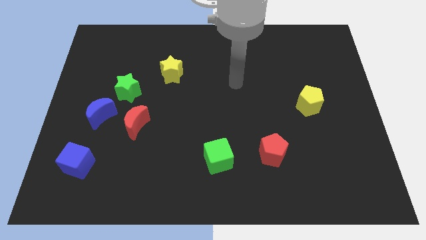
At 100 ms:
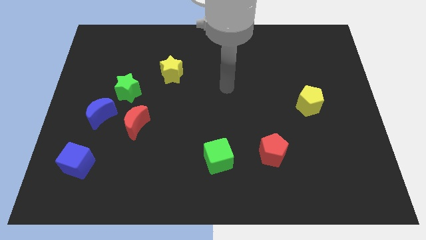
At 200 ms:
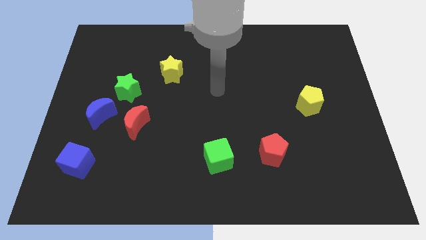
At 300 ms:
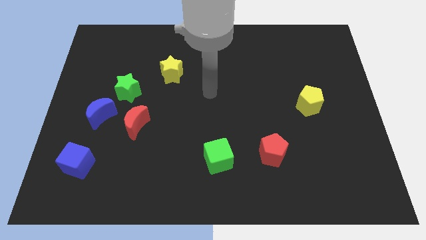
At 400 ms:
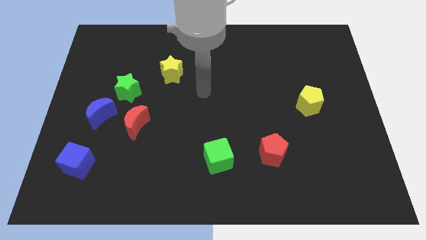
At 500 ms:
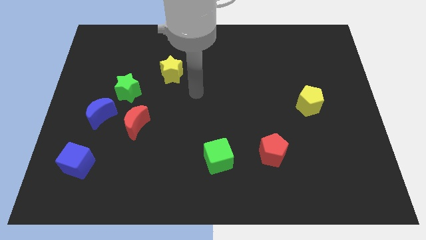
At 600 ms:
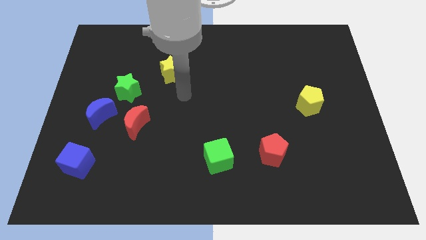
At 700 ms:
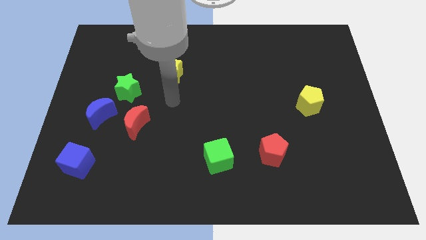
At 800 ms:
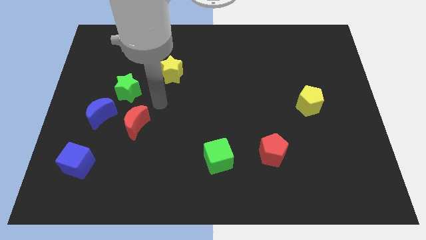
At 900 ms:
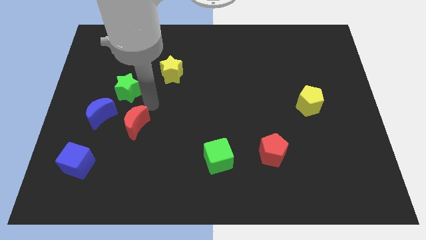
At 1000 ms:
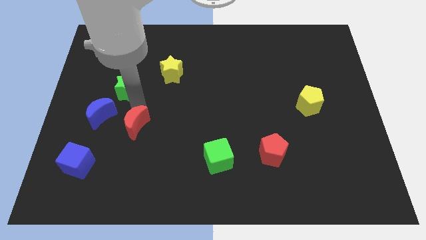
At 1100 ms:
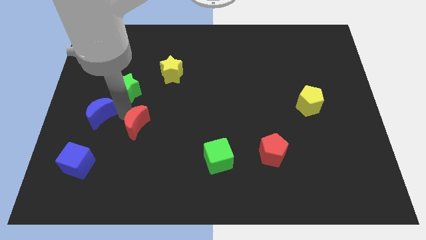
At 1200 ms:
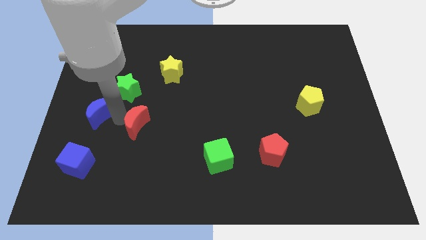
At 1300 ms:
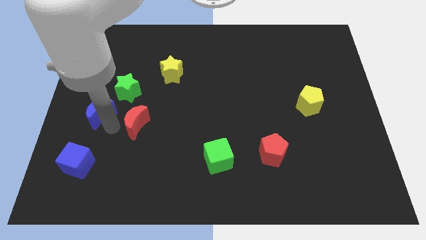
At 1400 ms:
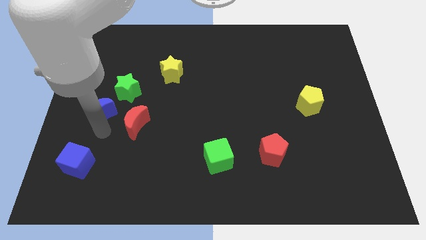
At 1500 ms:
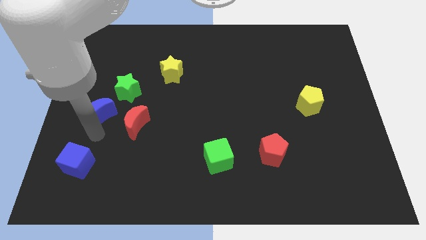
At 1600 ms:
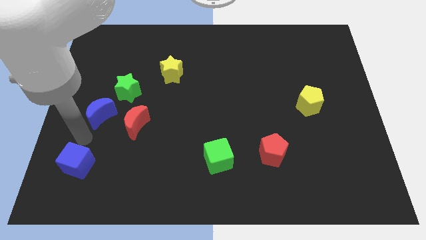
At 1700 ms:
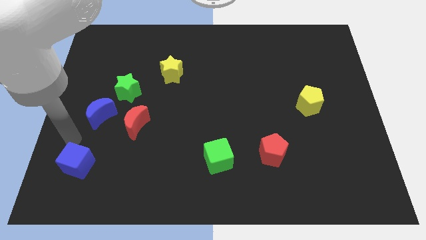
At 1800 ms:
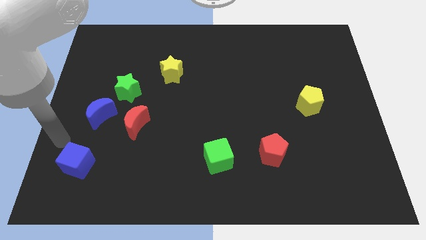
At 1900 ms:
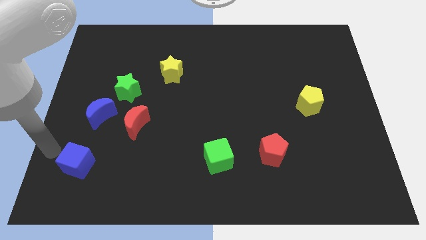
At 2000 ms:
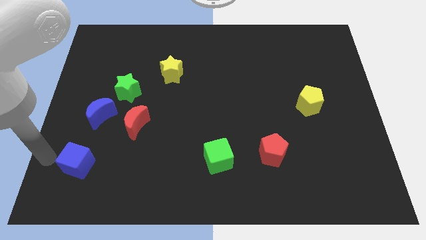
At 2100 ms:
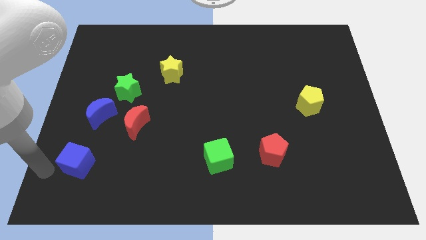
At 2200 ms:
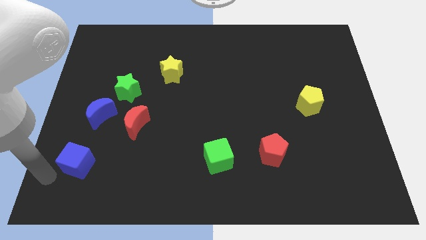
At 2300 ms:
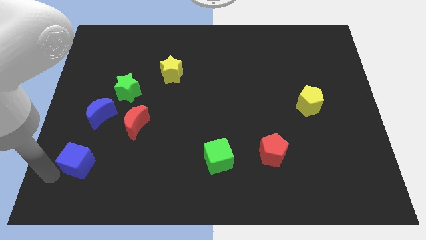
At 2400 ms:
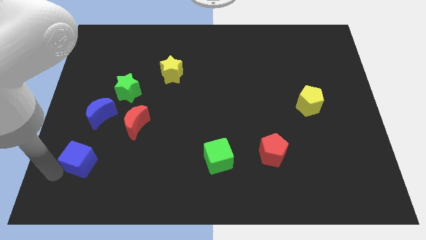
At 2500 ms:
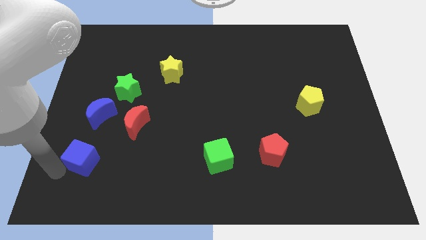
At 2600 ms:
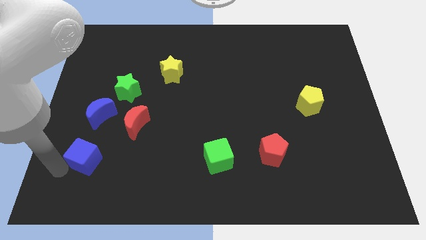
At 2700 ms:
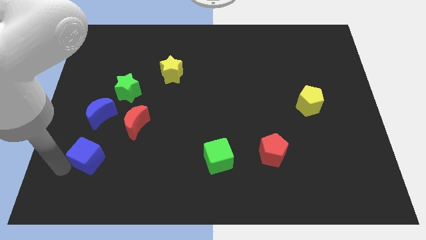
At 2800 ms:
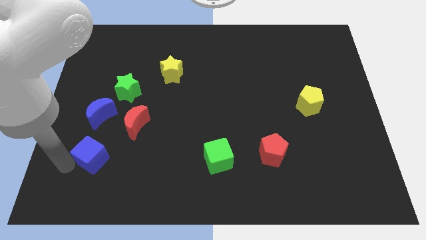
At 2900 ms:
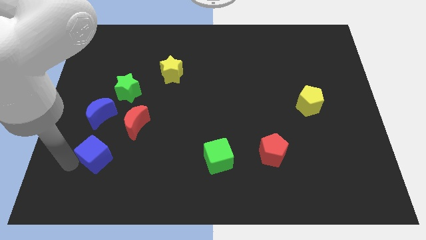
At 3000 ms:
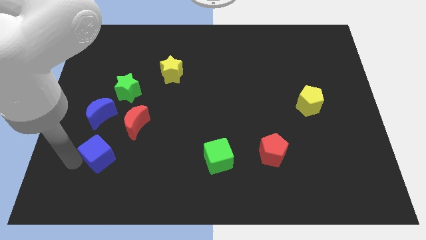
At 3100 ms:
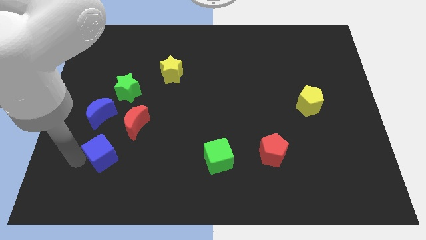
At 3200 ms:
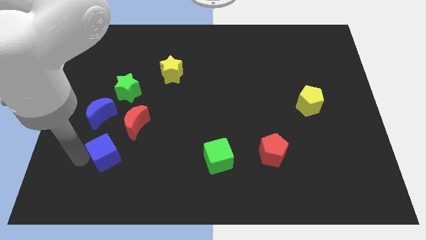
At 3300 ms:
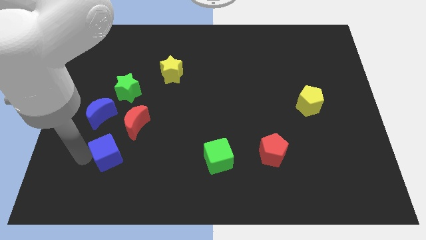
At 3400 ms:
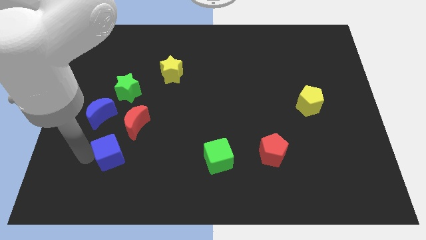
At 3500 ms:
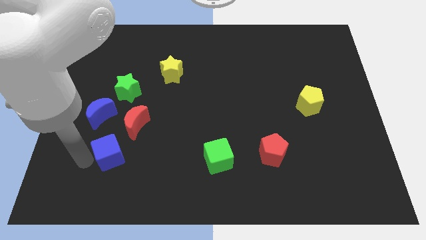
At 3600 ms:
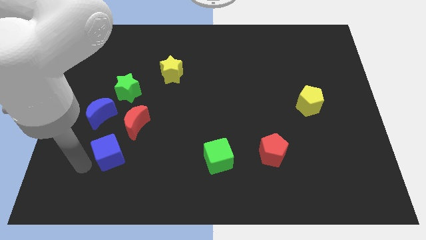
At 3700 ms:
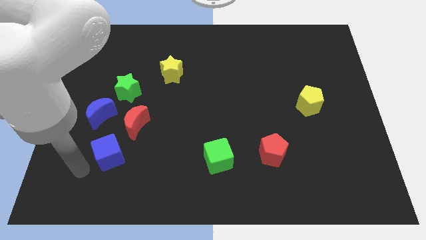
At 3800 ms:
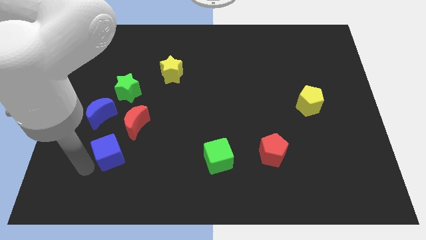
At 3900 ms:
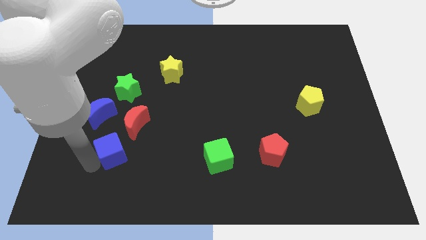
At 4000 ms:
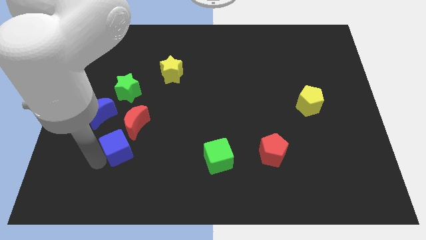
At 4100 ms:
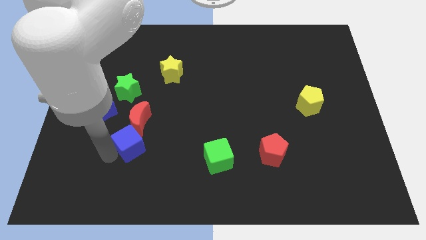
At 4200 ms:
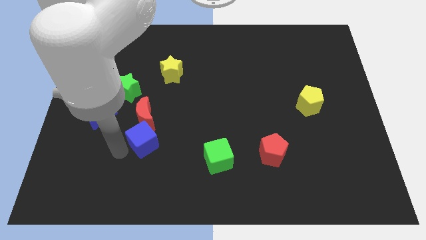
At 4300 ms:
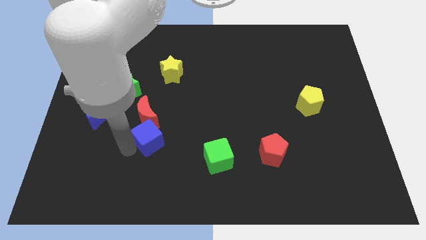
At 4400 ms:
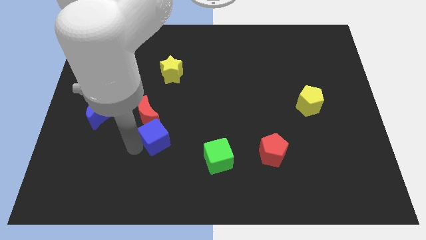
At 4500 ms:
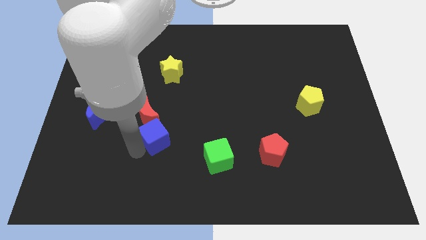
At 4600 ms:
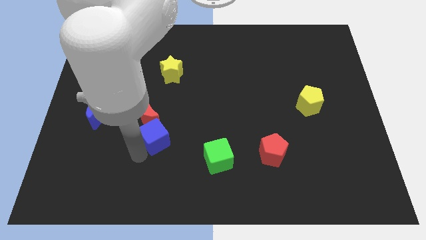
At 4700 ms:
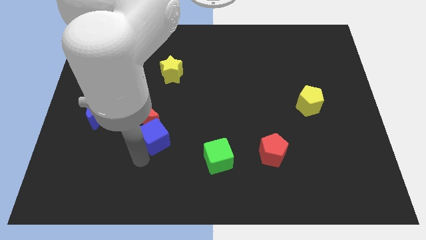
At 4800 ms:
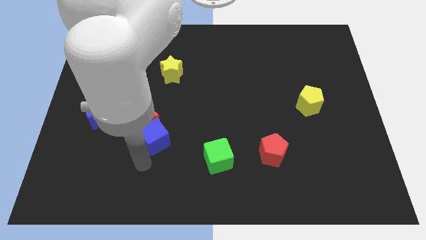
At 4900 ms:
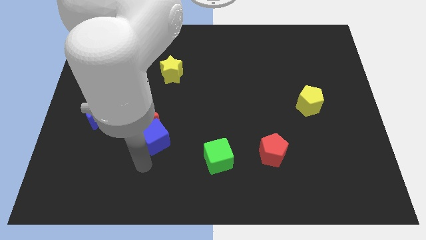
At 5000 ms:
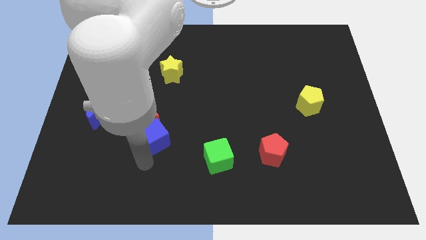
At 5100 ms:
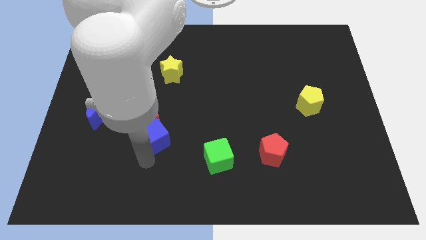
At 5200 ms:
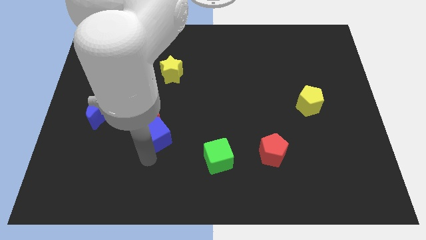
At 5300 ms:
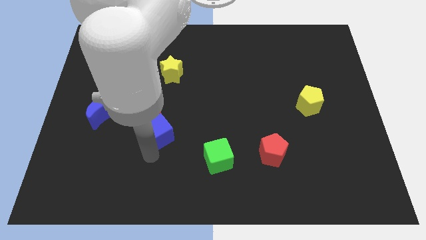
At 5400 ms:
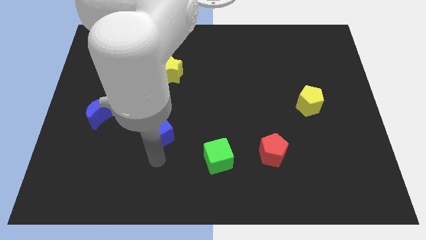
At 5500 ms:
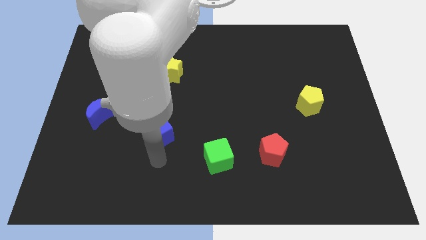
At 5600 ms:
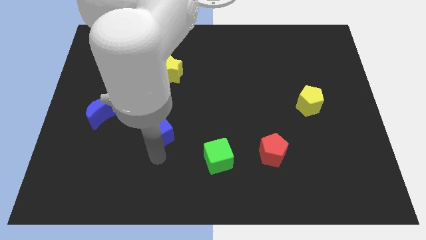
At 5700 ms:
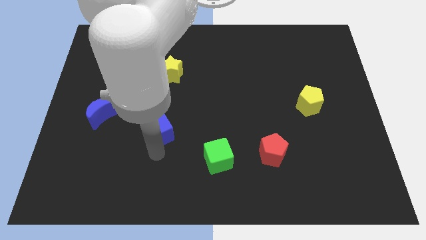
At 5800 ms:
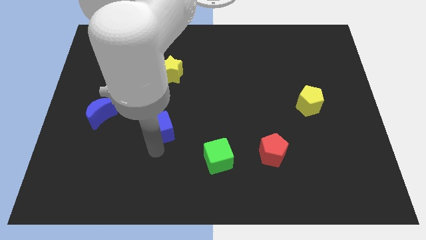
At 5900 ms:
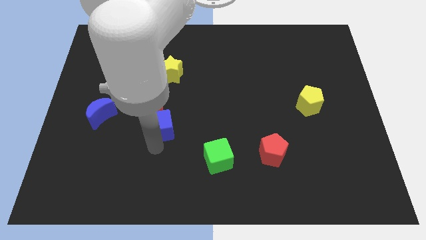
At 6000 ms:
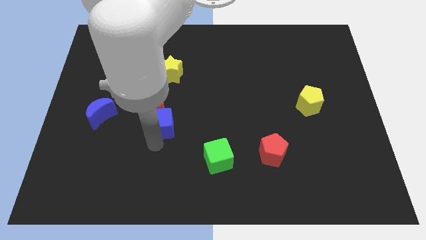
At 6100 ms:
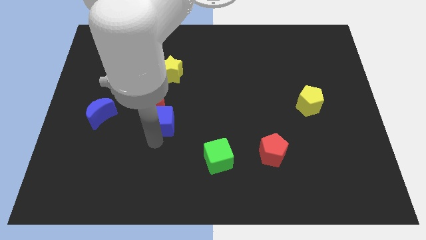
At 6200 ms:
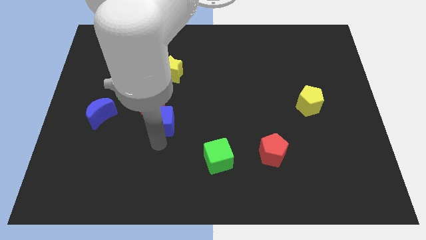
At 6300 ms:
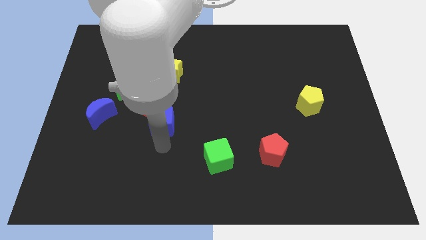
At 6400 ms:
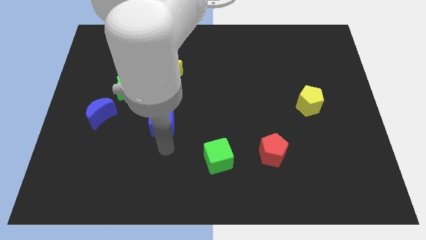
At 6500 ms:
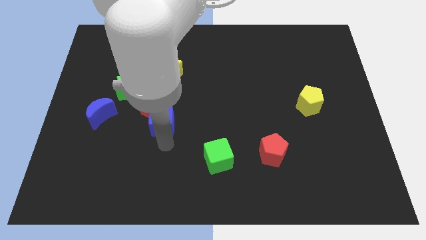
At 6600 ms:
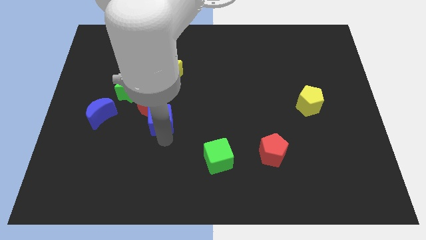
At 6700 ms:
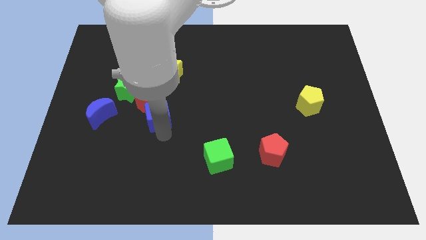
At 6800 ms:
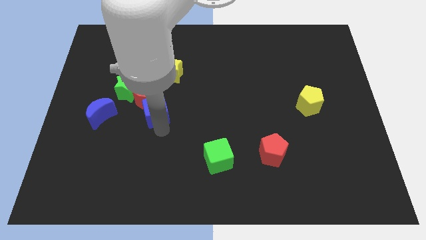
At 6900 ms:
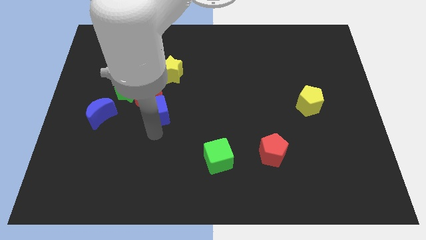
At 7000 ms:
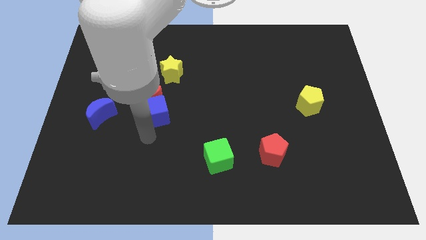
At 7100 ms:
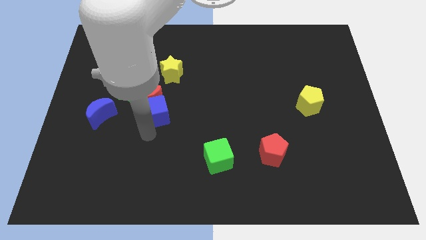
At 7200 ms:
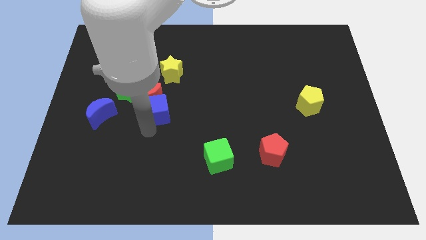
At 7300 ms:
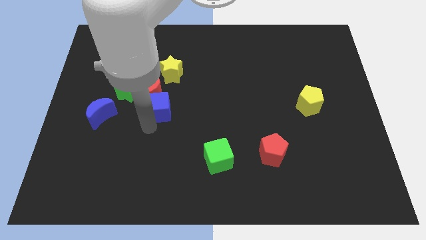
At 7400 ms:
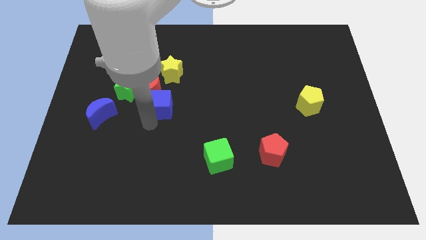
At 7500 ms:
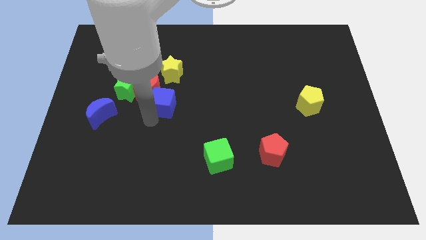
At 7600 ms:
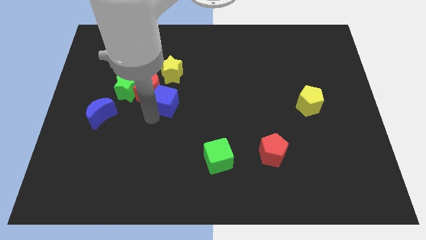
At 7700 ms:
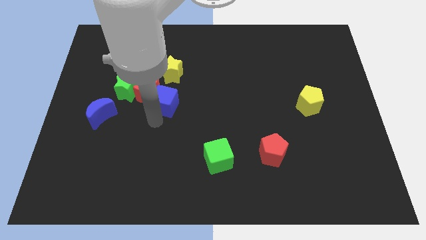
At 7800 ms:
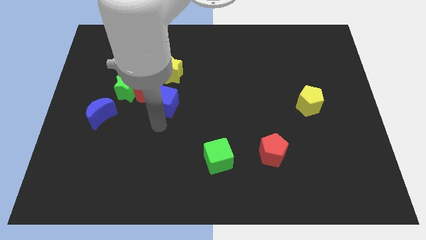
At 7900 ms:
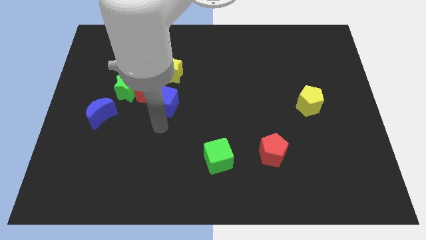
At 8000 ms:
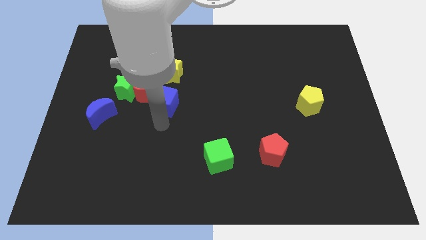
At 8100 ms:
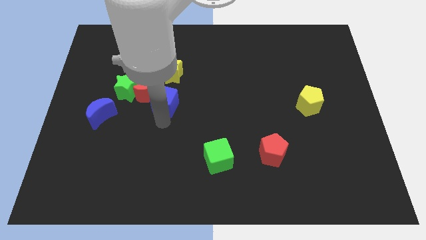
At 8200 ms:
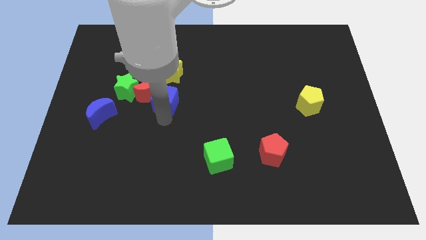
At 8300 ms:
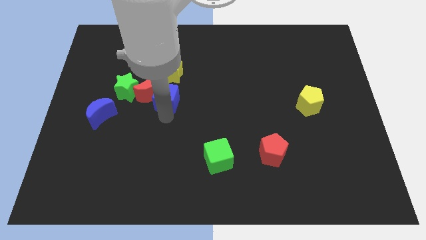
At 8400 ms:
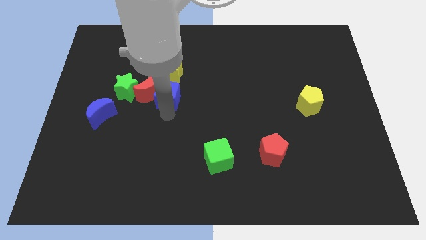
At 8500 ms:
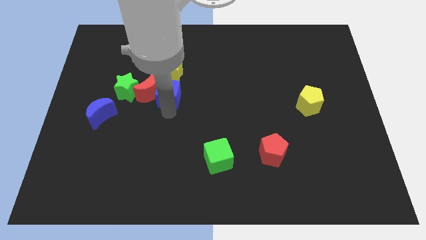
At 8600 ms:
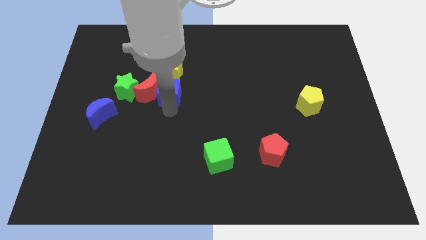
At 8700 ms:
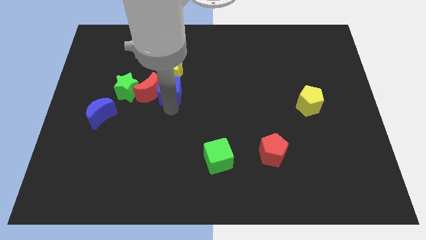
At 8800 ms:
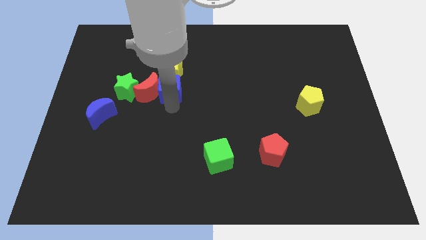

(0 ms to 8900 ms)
slide the blue cube towards the yellow star
